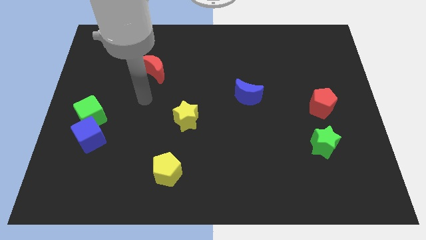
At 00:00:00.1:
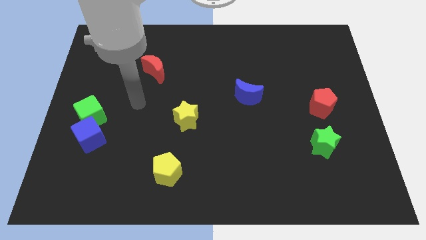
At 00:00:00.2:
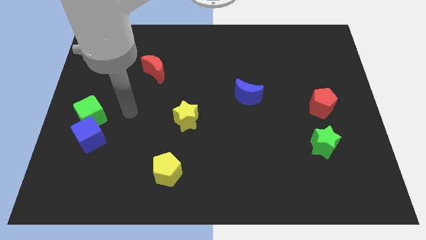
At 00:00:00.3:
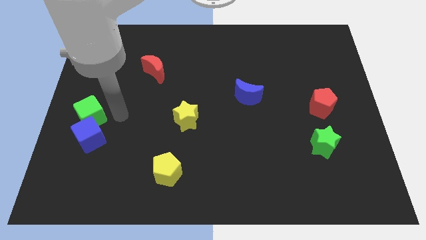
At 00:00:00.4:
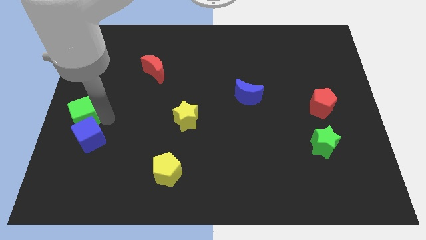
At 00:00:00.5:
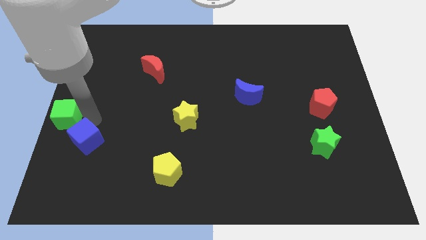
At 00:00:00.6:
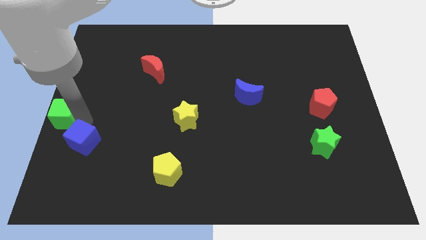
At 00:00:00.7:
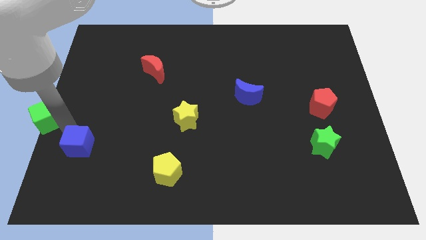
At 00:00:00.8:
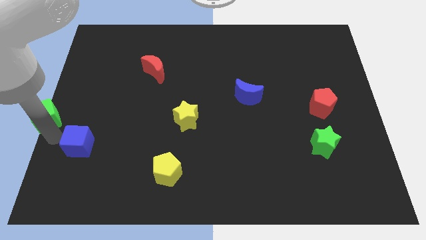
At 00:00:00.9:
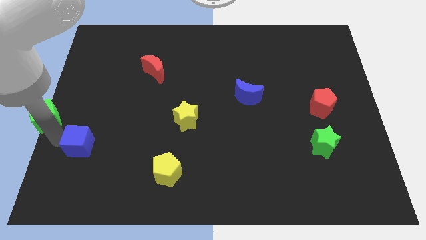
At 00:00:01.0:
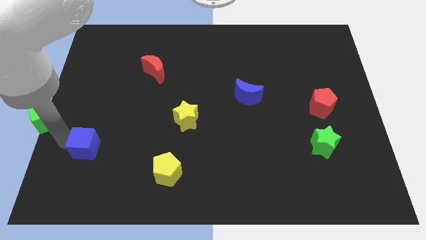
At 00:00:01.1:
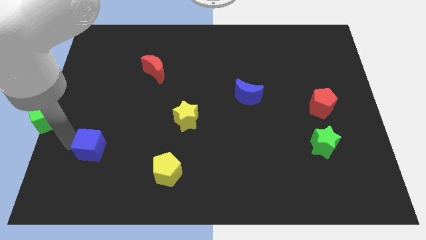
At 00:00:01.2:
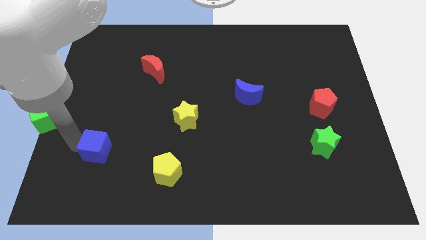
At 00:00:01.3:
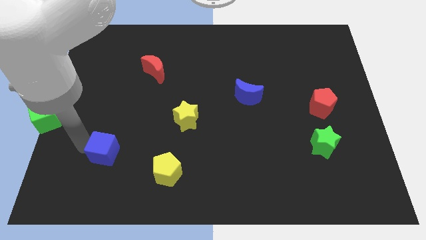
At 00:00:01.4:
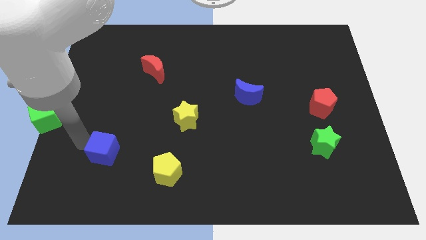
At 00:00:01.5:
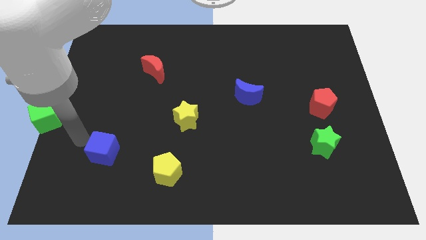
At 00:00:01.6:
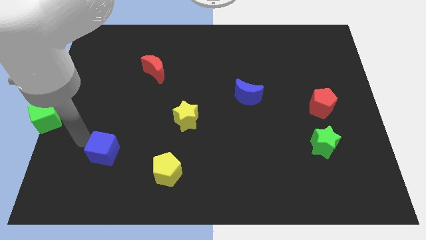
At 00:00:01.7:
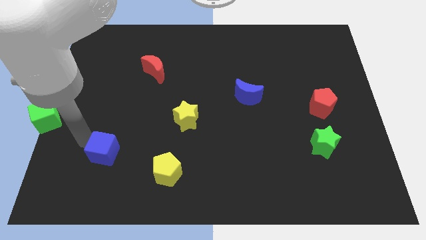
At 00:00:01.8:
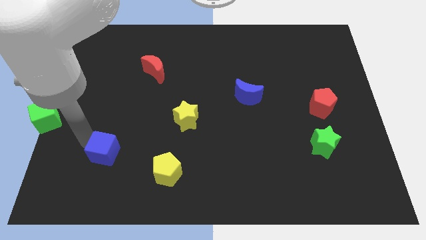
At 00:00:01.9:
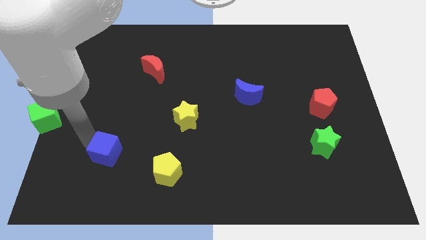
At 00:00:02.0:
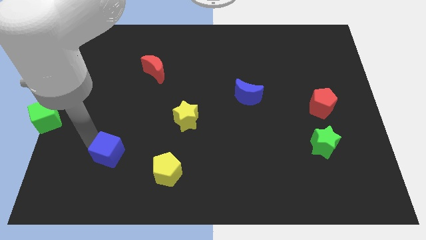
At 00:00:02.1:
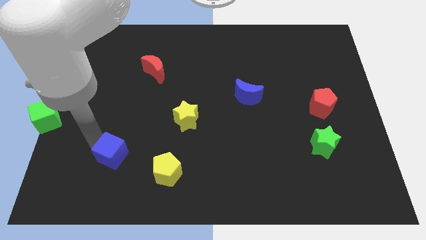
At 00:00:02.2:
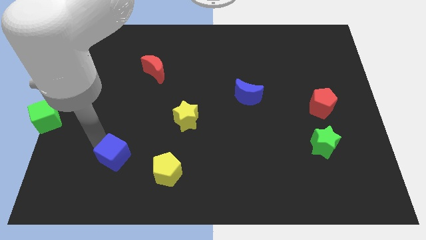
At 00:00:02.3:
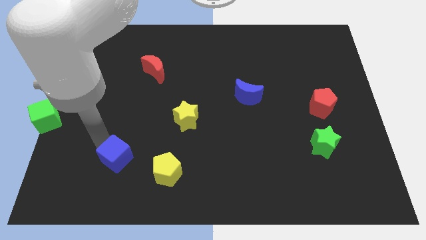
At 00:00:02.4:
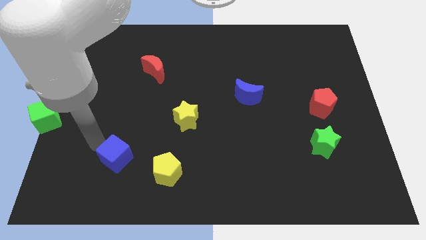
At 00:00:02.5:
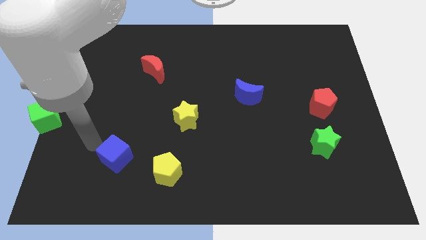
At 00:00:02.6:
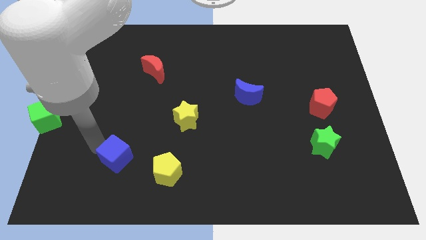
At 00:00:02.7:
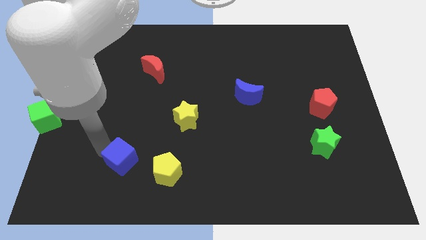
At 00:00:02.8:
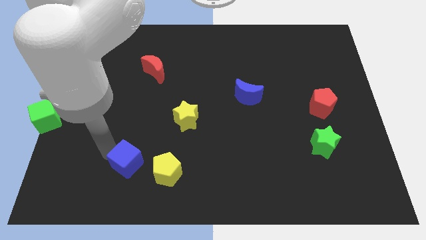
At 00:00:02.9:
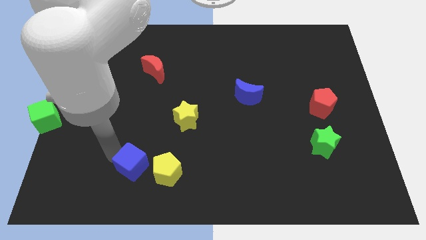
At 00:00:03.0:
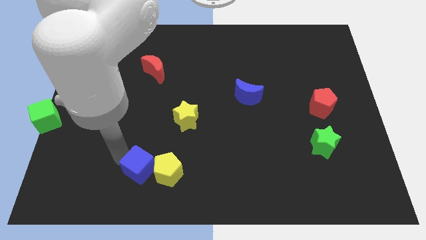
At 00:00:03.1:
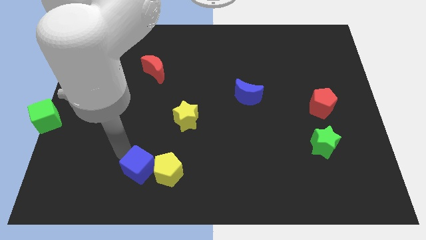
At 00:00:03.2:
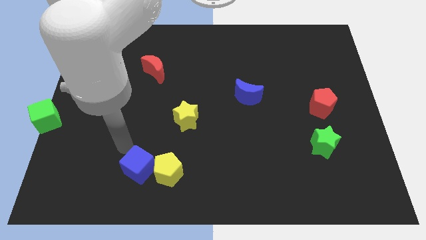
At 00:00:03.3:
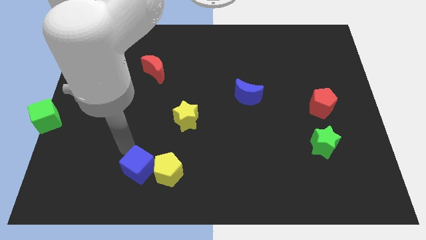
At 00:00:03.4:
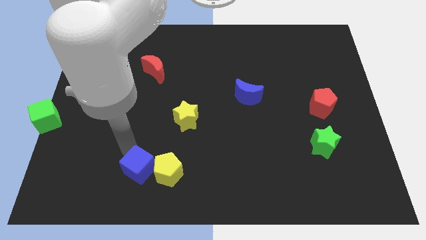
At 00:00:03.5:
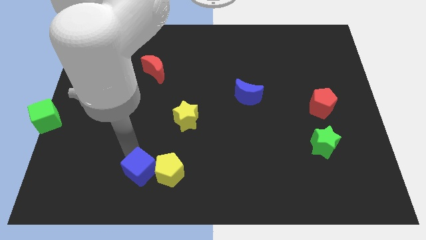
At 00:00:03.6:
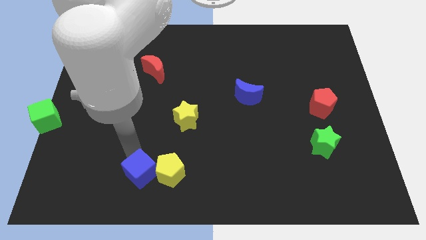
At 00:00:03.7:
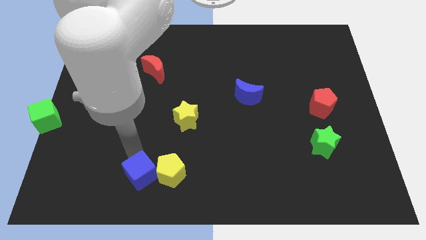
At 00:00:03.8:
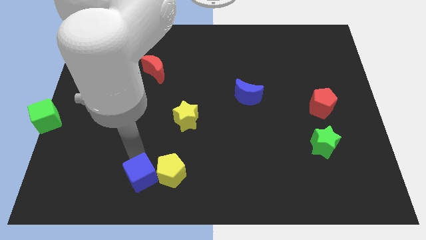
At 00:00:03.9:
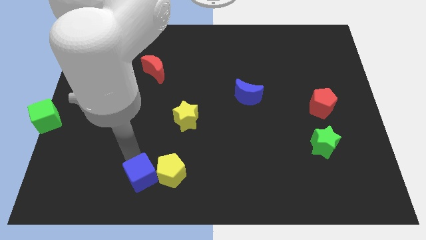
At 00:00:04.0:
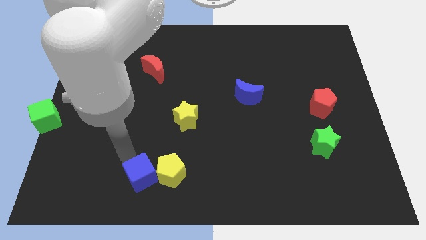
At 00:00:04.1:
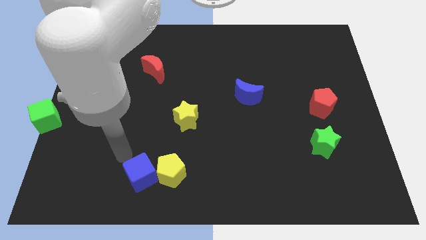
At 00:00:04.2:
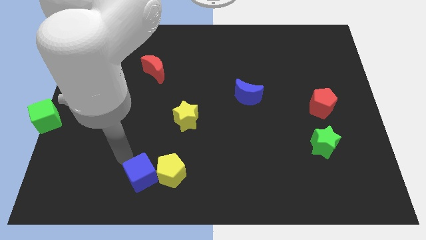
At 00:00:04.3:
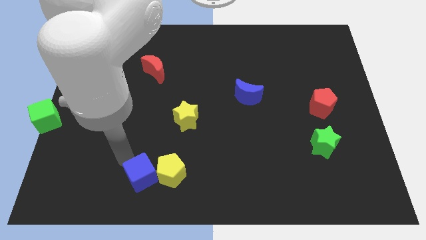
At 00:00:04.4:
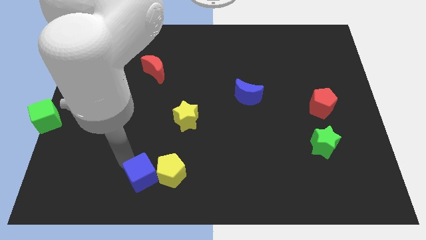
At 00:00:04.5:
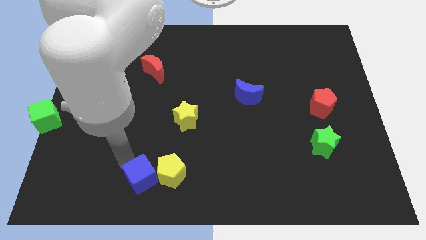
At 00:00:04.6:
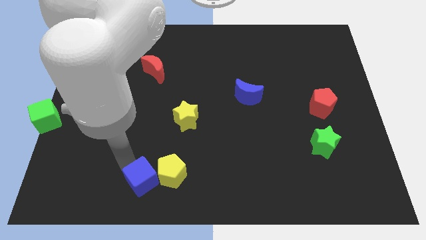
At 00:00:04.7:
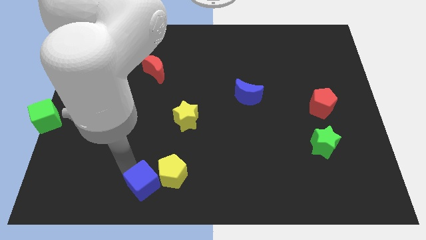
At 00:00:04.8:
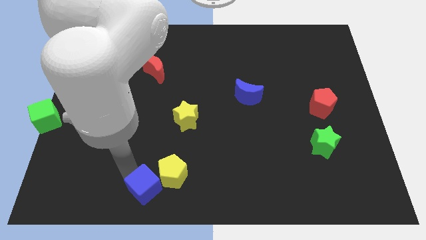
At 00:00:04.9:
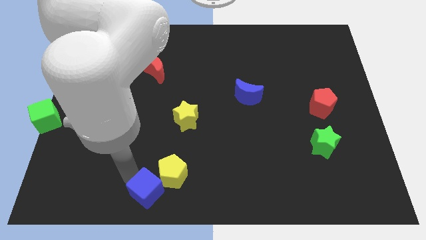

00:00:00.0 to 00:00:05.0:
put the blue cube to the bottom
